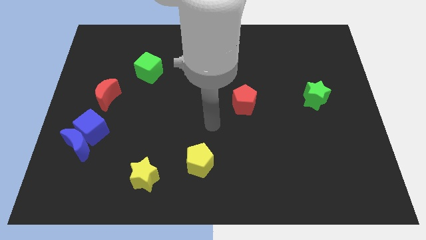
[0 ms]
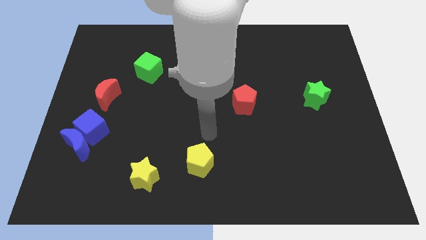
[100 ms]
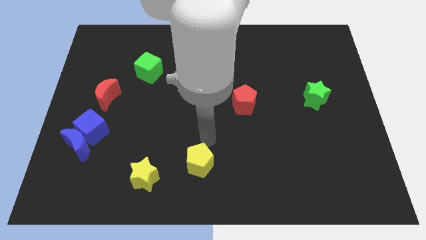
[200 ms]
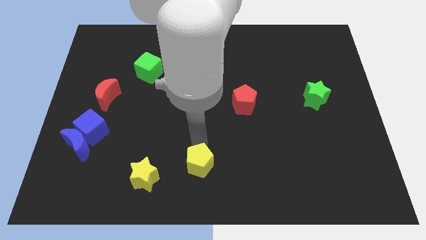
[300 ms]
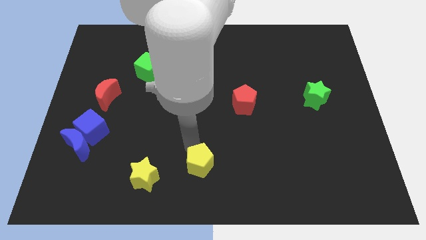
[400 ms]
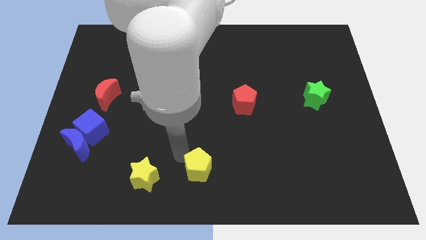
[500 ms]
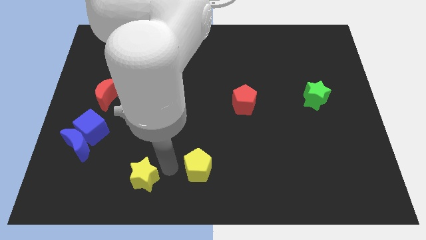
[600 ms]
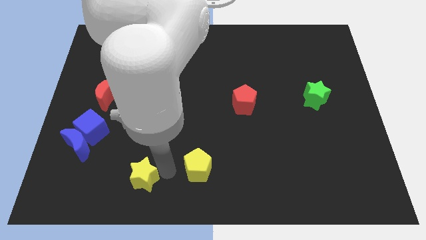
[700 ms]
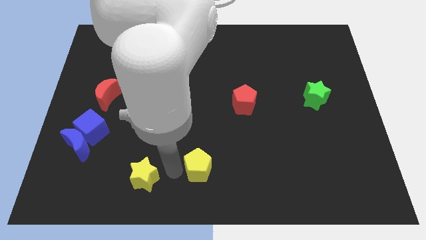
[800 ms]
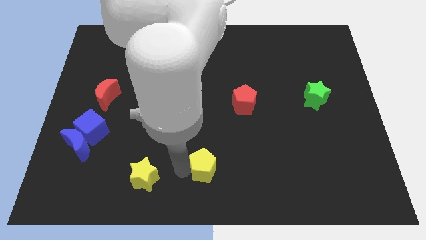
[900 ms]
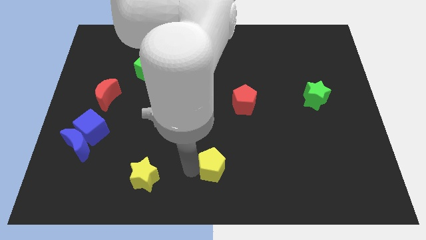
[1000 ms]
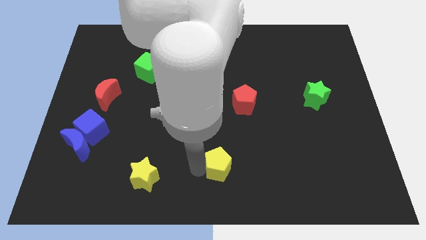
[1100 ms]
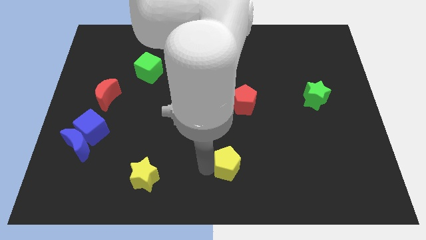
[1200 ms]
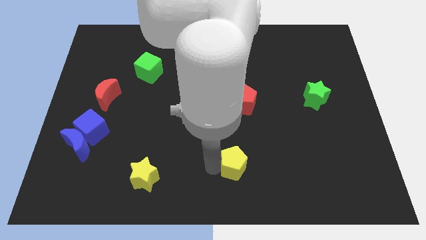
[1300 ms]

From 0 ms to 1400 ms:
push the yellow pentagon right a little bit

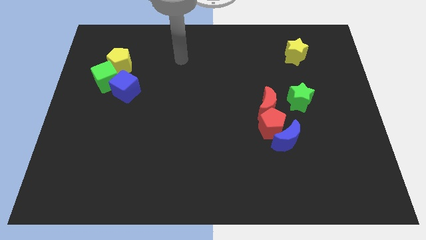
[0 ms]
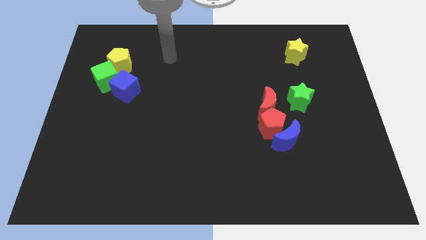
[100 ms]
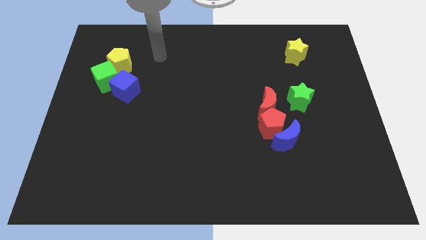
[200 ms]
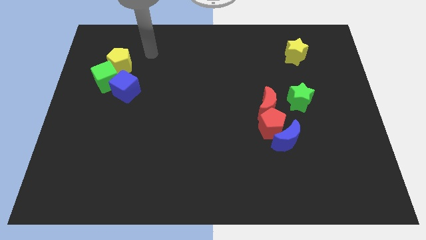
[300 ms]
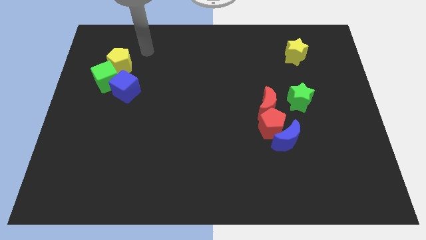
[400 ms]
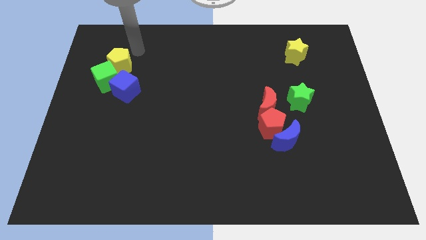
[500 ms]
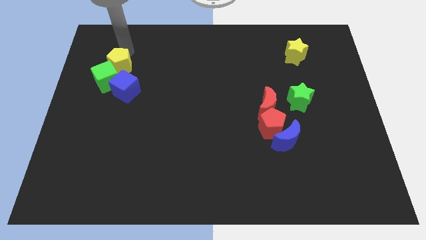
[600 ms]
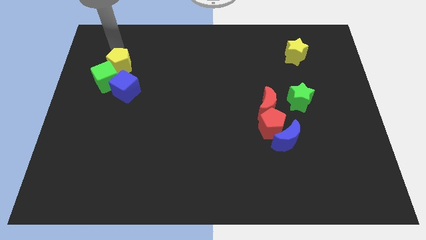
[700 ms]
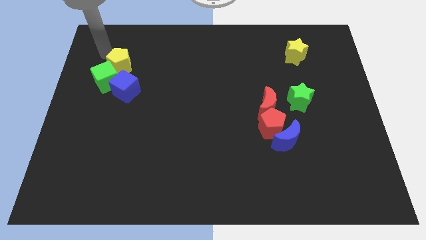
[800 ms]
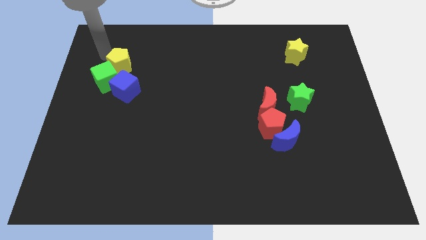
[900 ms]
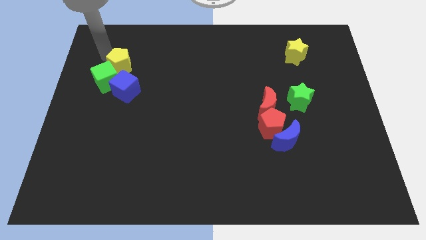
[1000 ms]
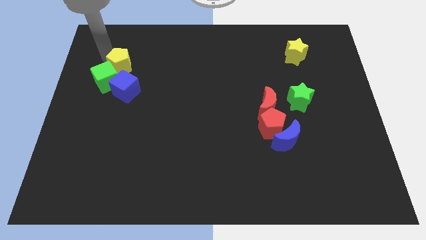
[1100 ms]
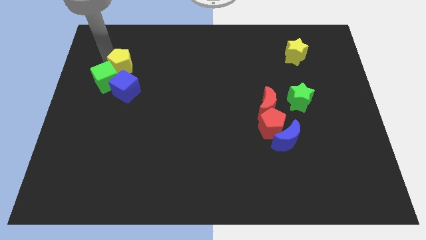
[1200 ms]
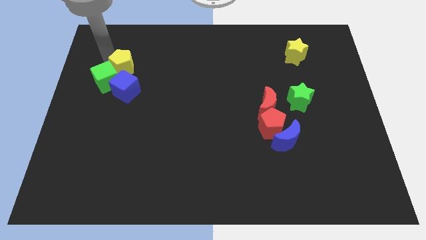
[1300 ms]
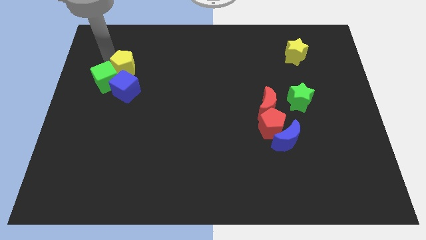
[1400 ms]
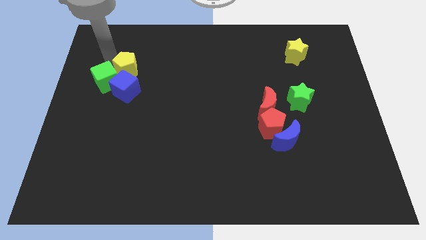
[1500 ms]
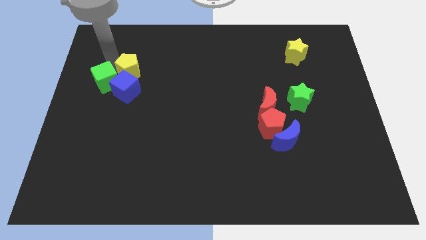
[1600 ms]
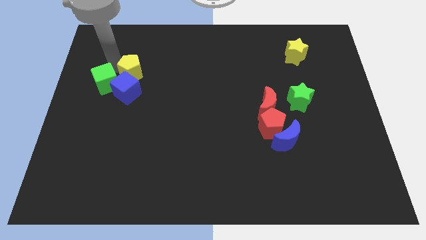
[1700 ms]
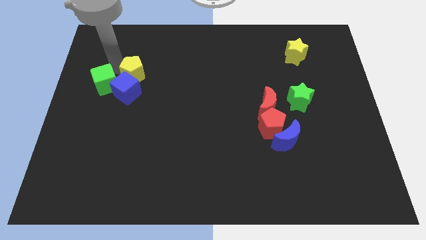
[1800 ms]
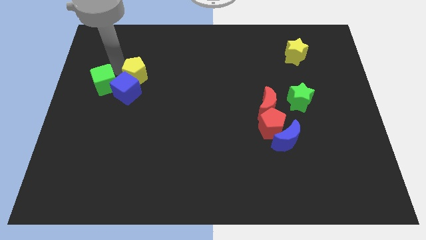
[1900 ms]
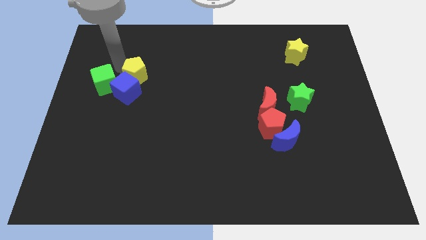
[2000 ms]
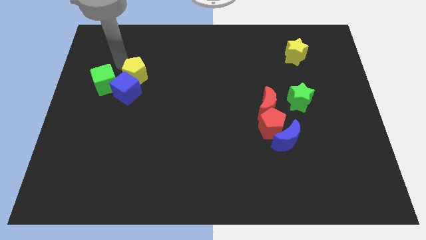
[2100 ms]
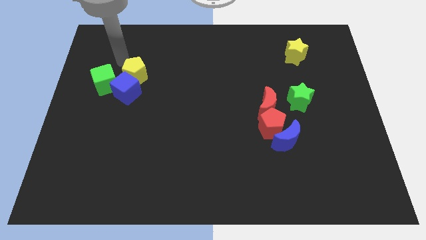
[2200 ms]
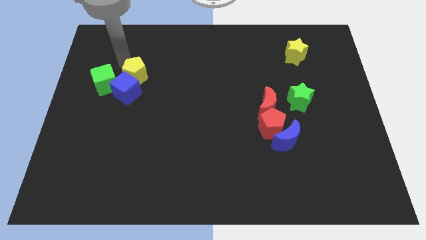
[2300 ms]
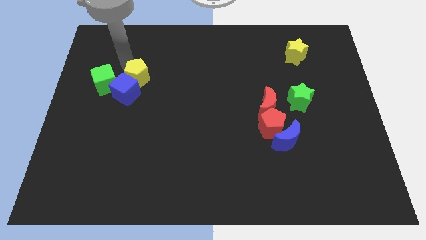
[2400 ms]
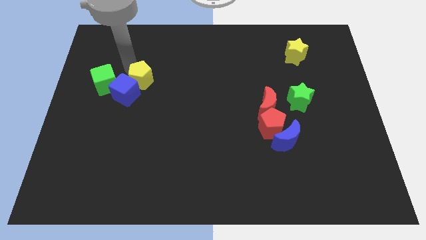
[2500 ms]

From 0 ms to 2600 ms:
move the yellow pentagon diagonally down and to the right a little bit

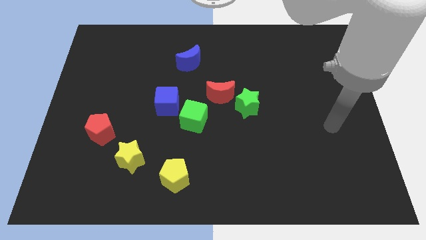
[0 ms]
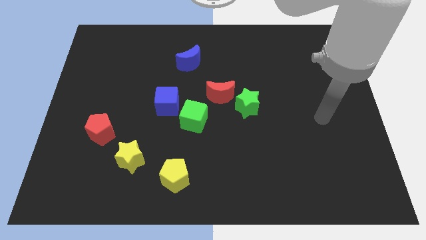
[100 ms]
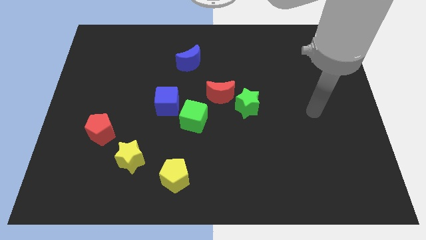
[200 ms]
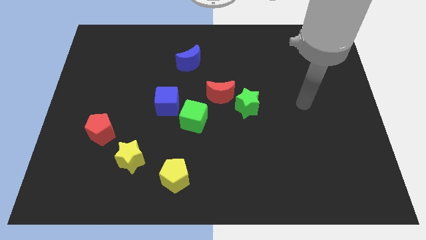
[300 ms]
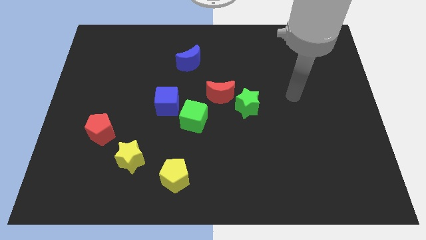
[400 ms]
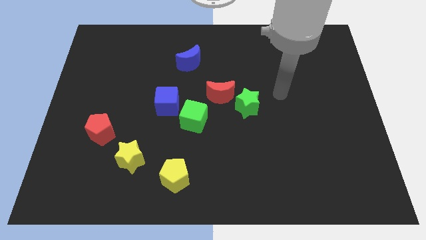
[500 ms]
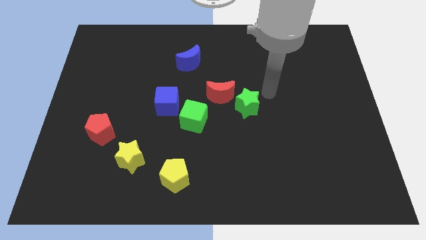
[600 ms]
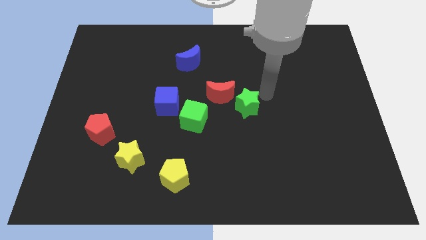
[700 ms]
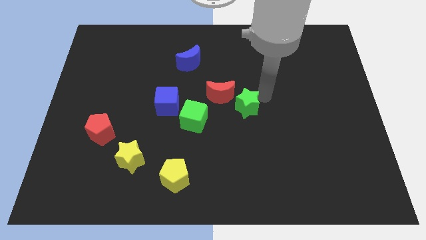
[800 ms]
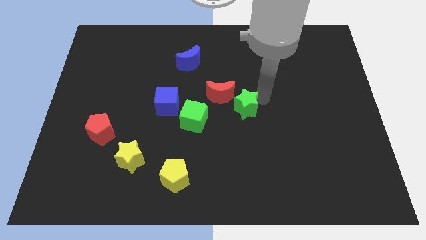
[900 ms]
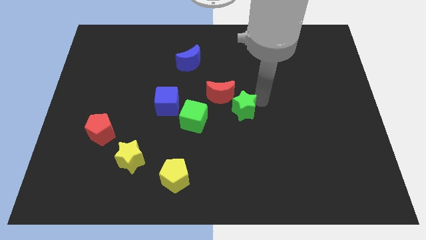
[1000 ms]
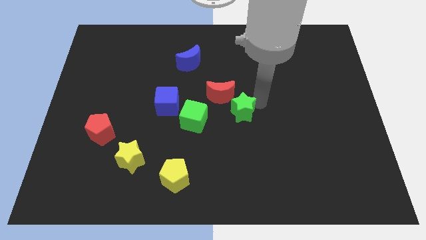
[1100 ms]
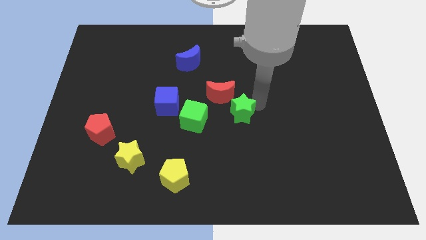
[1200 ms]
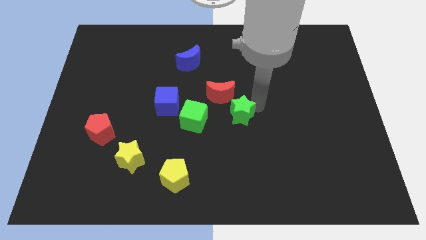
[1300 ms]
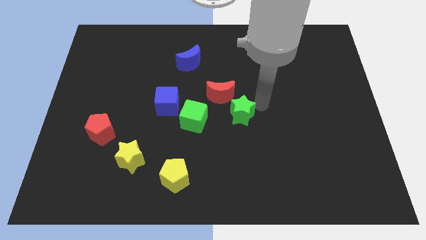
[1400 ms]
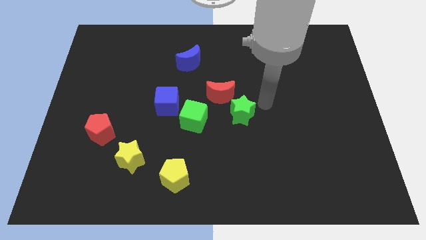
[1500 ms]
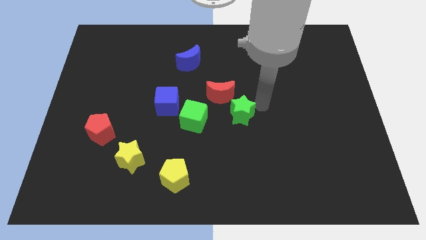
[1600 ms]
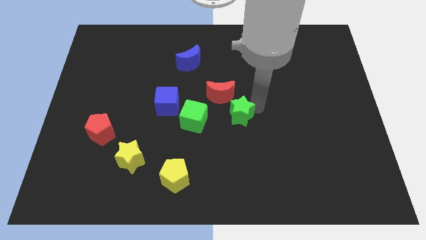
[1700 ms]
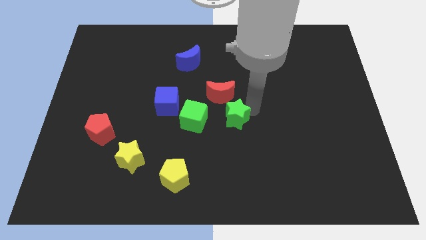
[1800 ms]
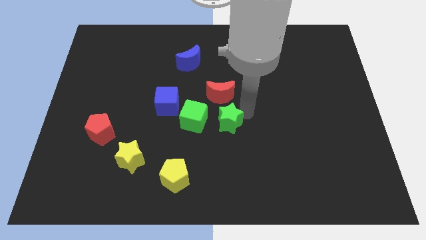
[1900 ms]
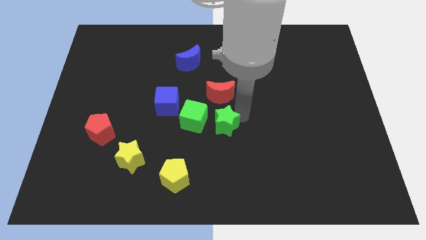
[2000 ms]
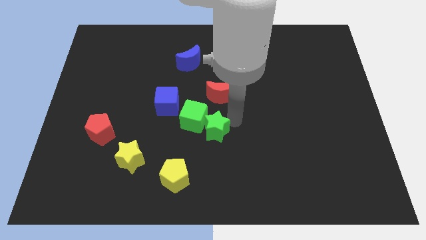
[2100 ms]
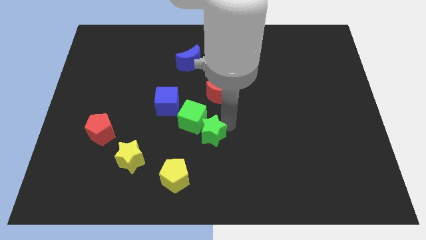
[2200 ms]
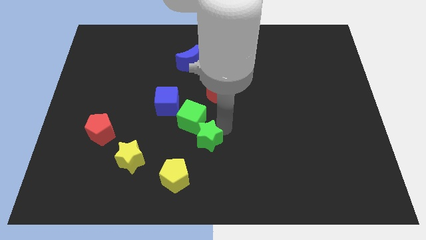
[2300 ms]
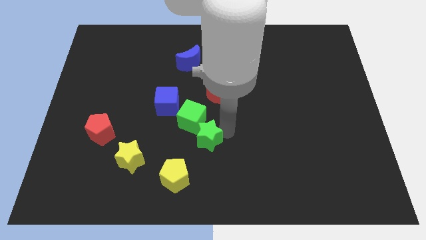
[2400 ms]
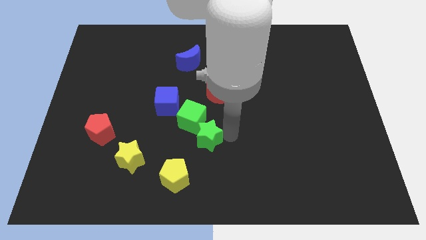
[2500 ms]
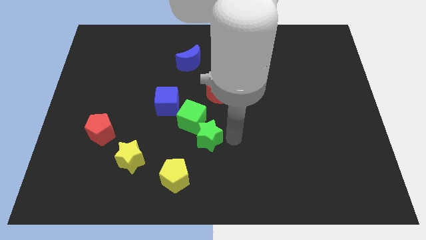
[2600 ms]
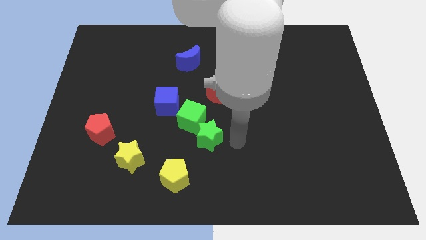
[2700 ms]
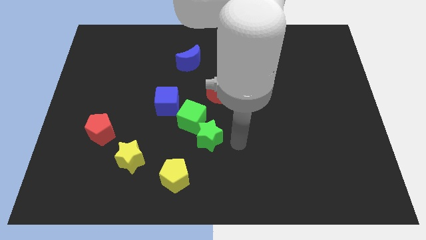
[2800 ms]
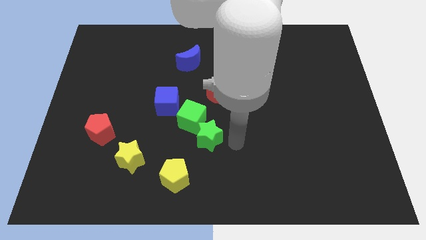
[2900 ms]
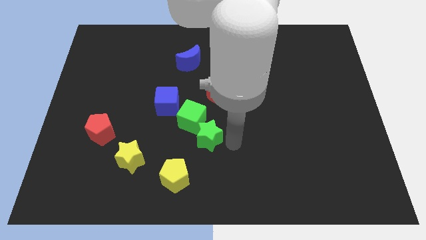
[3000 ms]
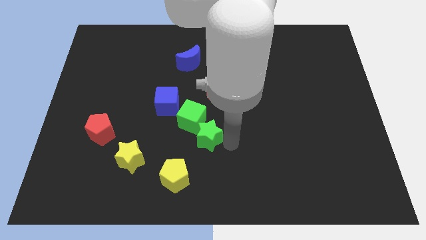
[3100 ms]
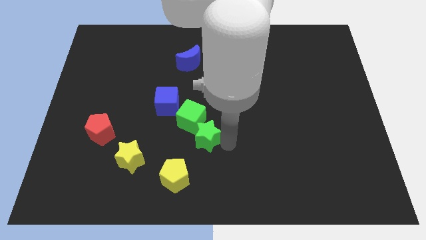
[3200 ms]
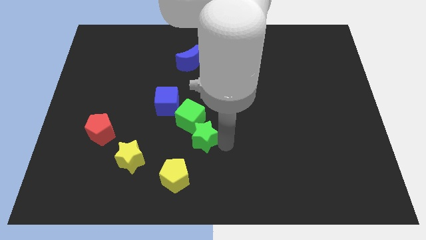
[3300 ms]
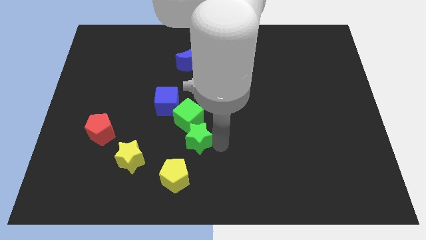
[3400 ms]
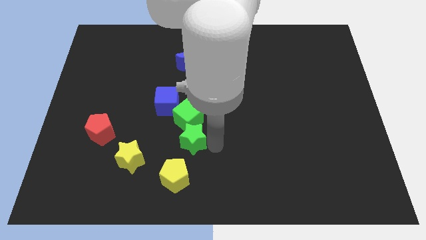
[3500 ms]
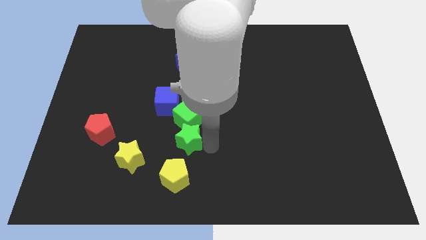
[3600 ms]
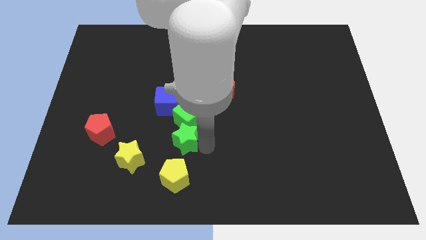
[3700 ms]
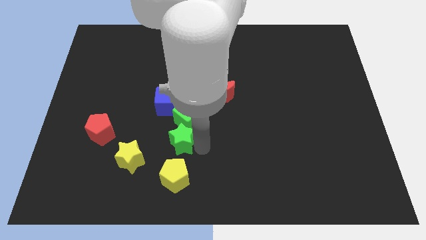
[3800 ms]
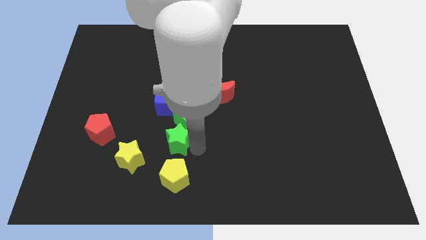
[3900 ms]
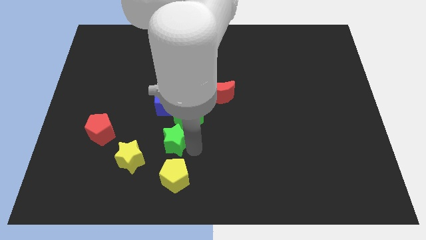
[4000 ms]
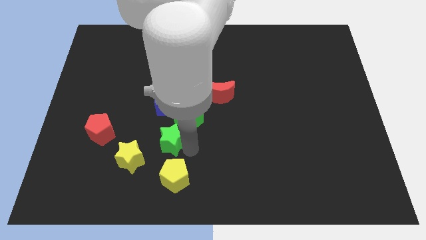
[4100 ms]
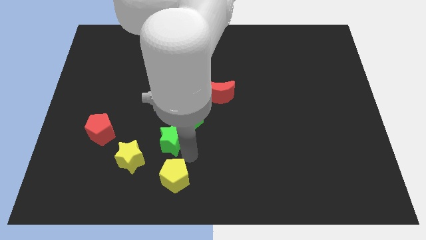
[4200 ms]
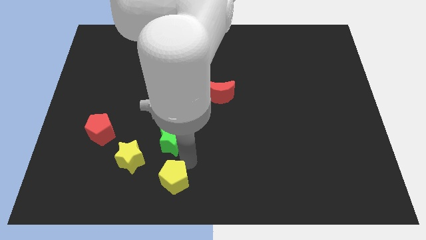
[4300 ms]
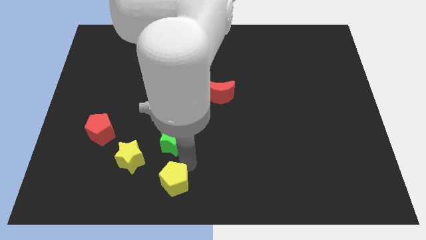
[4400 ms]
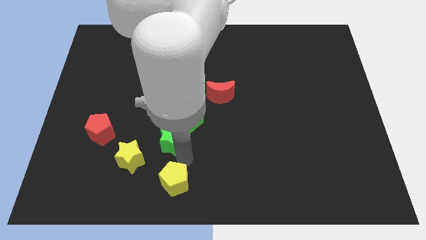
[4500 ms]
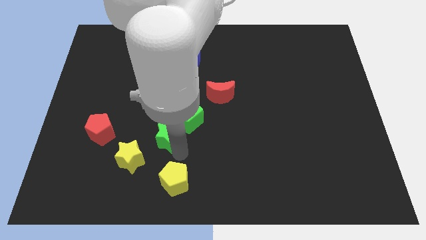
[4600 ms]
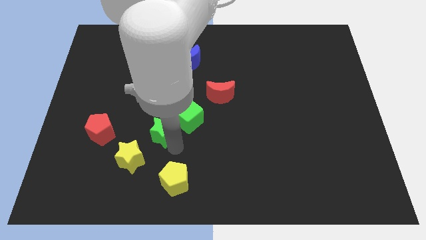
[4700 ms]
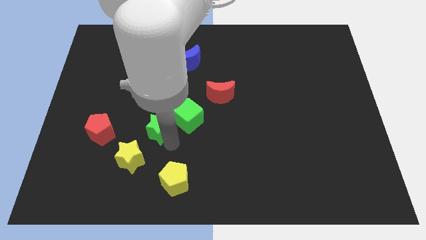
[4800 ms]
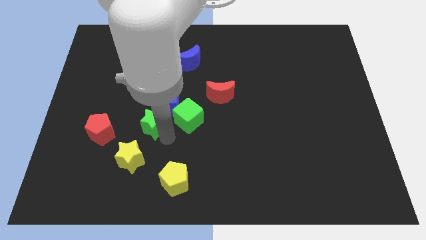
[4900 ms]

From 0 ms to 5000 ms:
move the green star to the left
